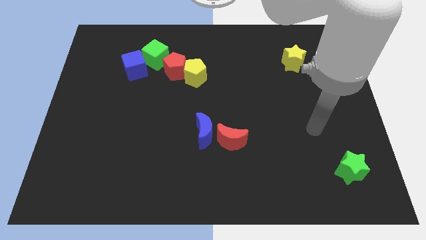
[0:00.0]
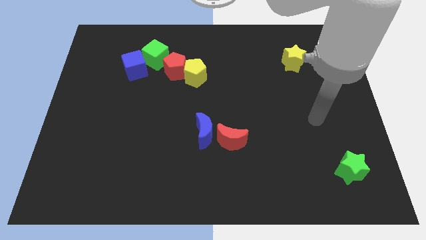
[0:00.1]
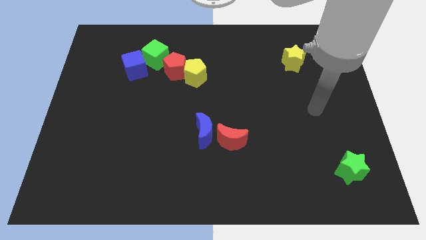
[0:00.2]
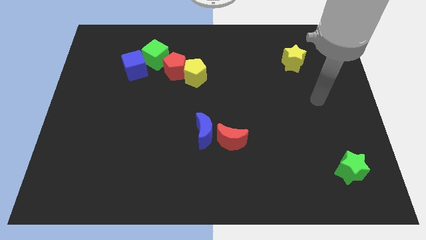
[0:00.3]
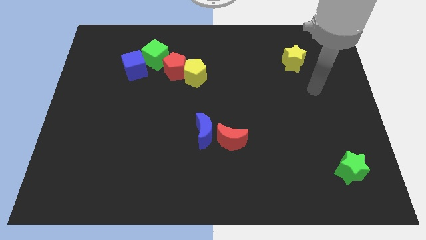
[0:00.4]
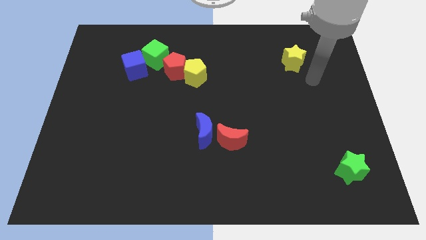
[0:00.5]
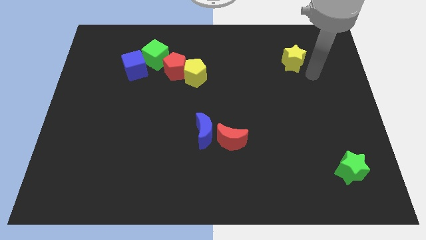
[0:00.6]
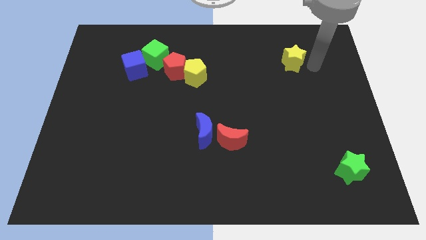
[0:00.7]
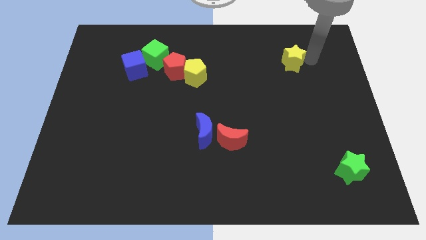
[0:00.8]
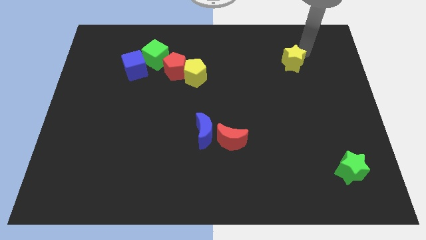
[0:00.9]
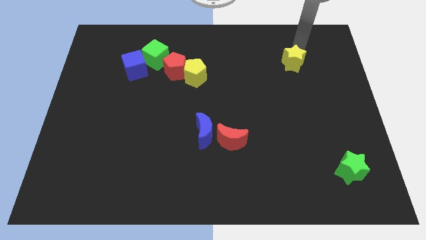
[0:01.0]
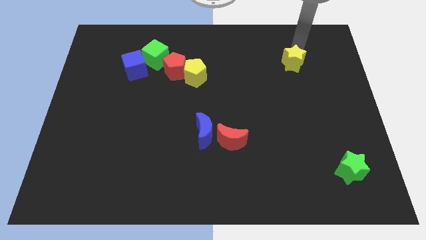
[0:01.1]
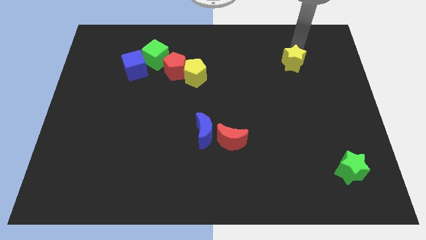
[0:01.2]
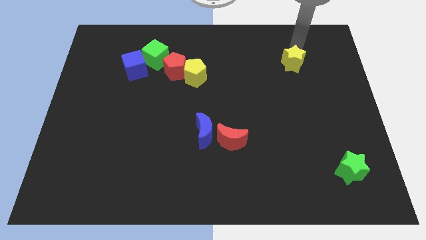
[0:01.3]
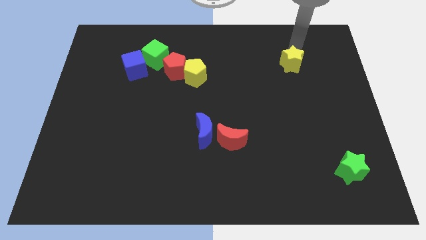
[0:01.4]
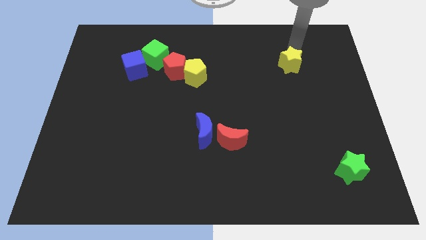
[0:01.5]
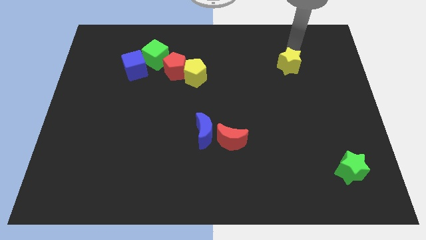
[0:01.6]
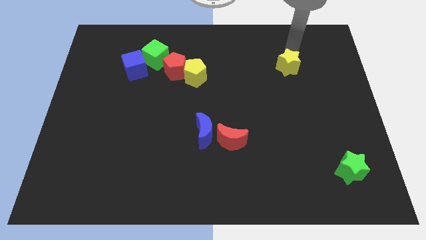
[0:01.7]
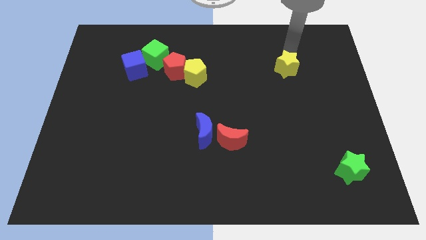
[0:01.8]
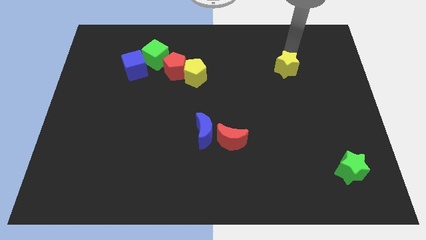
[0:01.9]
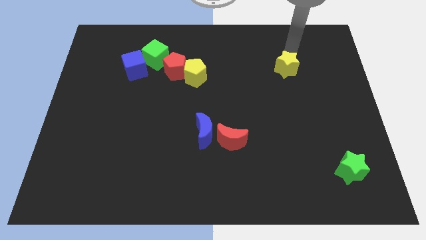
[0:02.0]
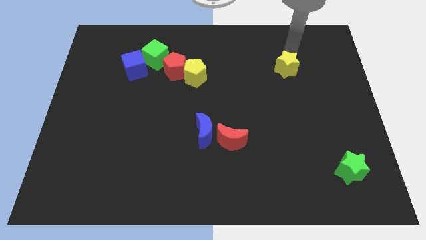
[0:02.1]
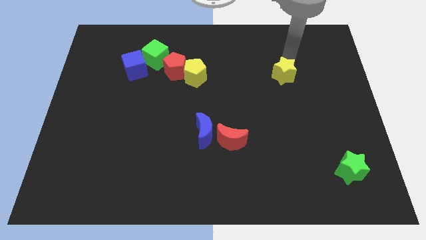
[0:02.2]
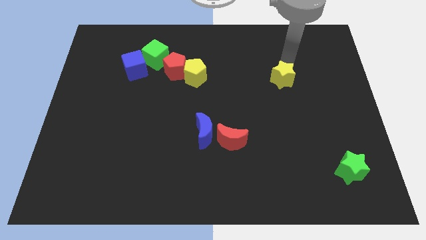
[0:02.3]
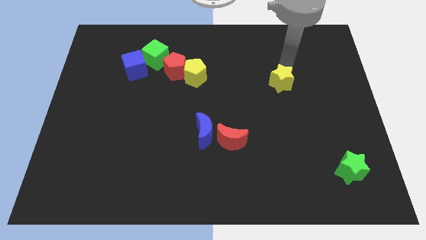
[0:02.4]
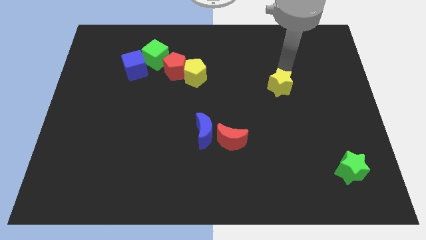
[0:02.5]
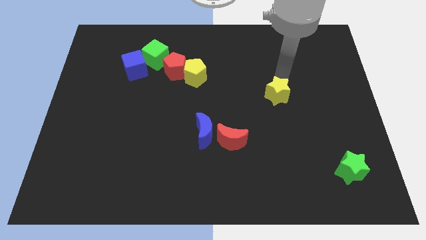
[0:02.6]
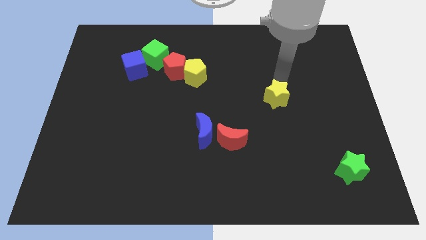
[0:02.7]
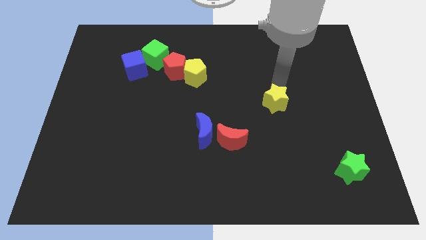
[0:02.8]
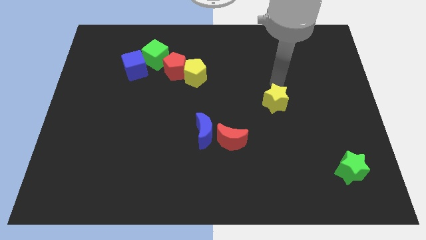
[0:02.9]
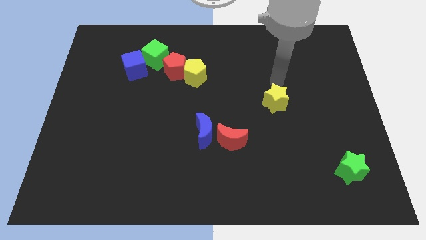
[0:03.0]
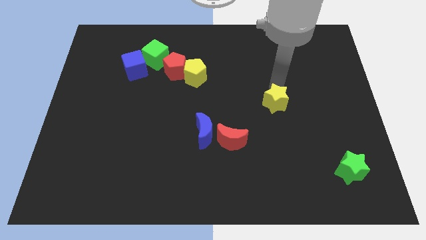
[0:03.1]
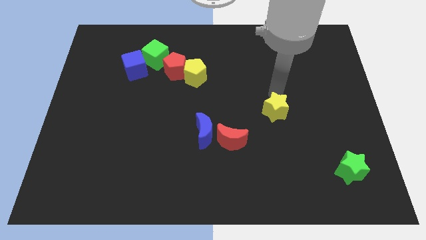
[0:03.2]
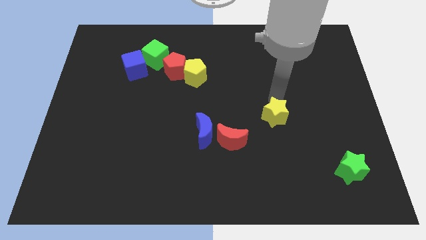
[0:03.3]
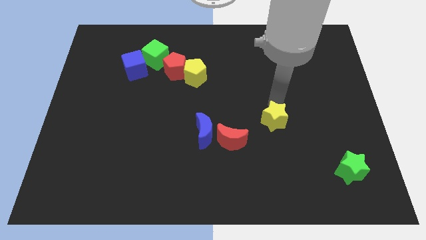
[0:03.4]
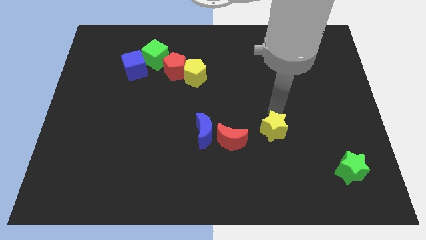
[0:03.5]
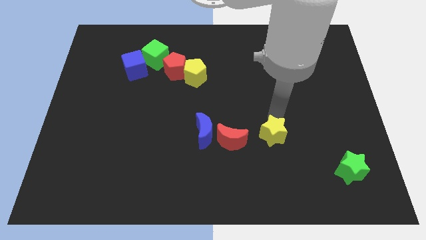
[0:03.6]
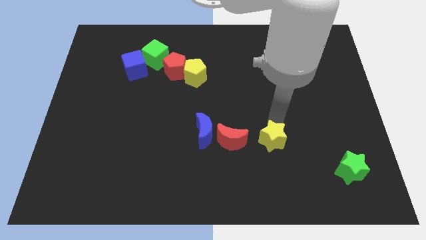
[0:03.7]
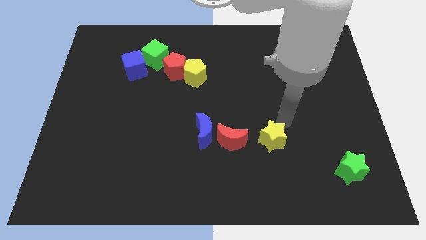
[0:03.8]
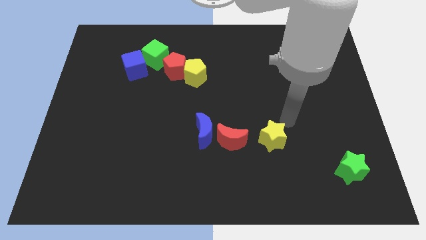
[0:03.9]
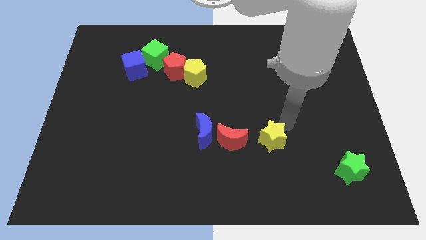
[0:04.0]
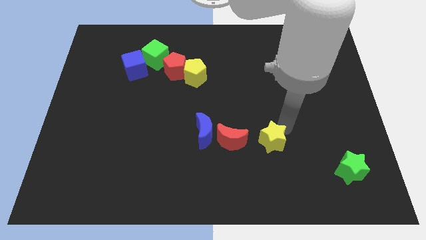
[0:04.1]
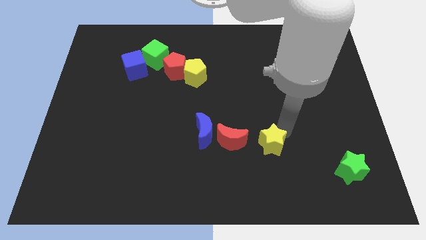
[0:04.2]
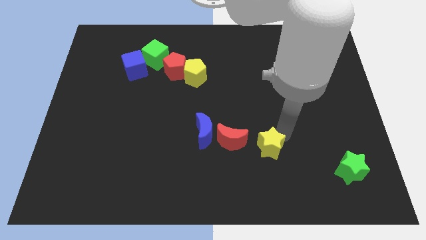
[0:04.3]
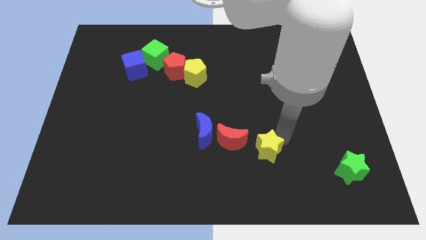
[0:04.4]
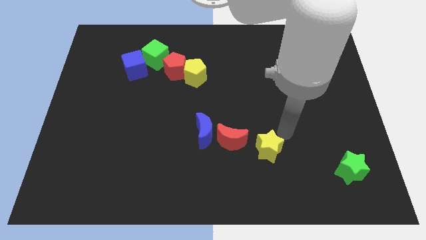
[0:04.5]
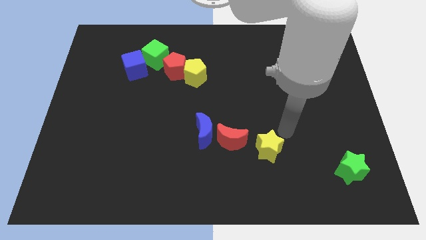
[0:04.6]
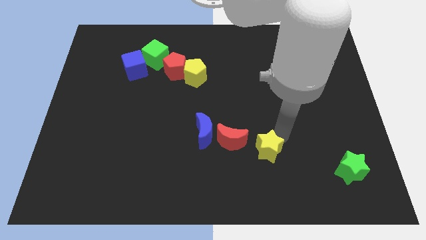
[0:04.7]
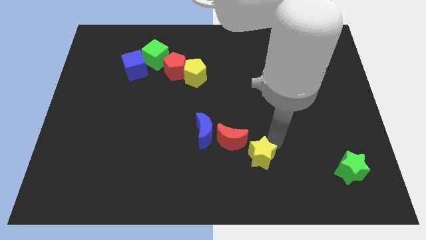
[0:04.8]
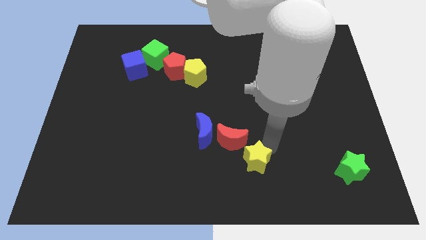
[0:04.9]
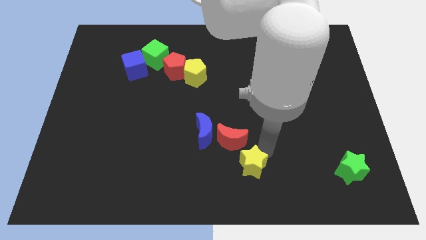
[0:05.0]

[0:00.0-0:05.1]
put the yellow star to the bottom

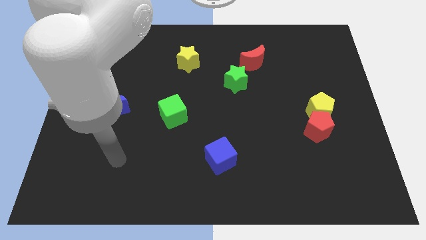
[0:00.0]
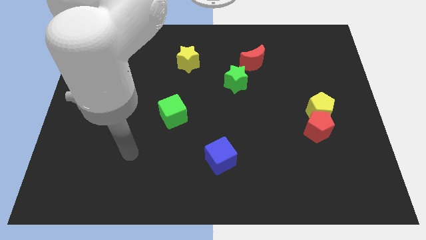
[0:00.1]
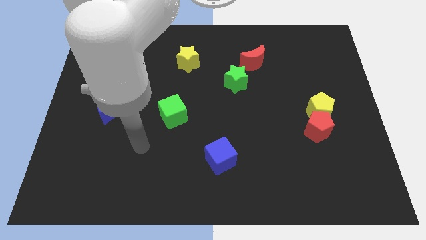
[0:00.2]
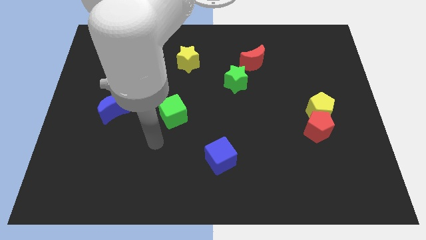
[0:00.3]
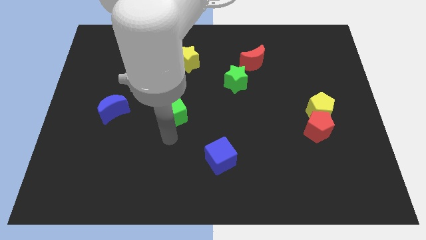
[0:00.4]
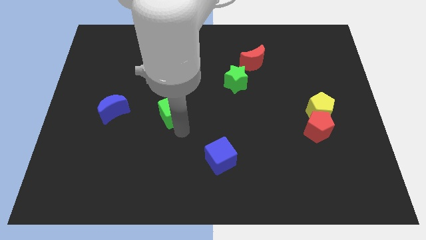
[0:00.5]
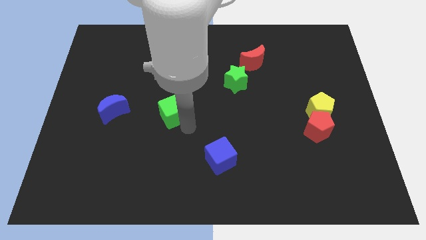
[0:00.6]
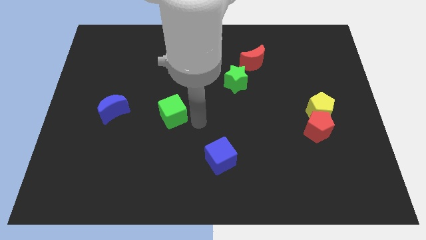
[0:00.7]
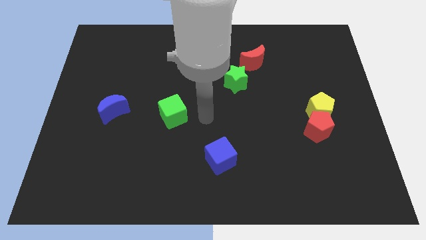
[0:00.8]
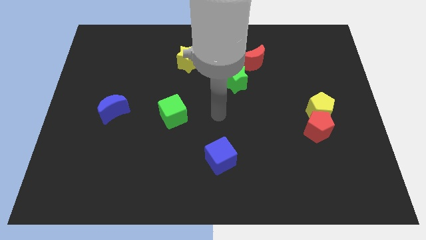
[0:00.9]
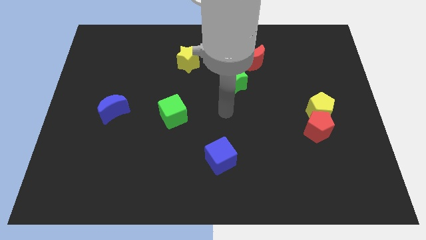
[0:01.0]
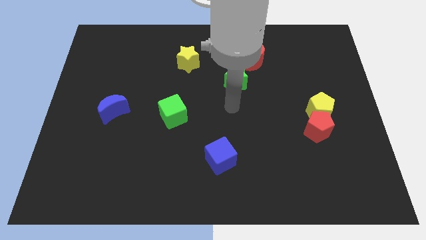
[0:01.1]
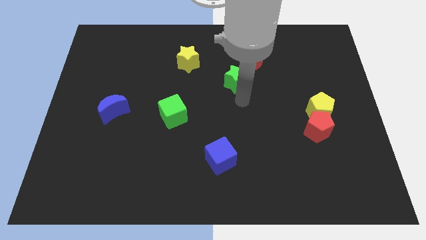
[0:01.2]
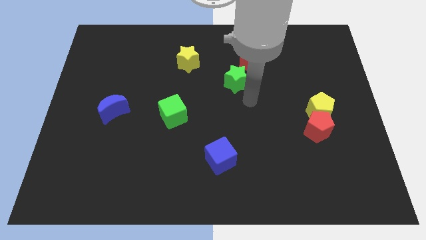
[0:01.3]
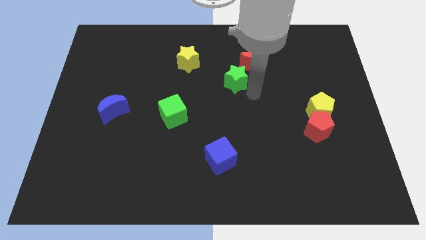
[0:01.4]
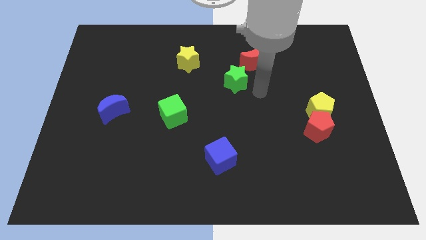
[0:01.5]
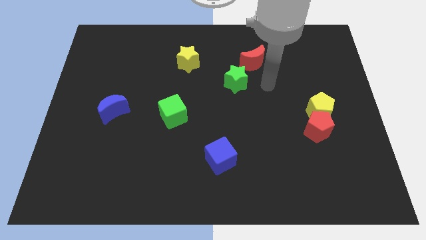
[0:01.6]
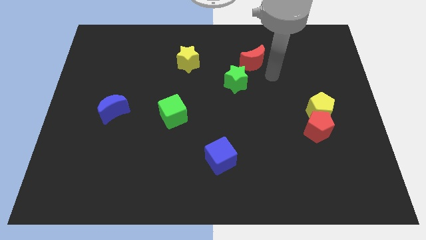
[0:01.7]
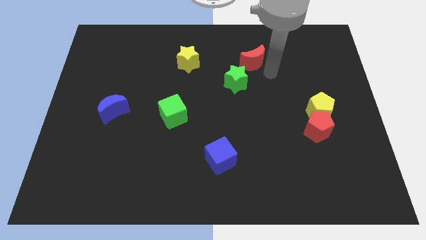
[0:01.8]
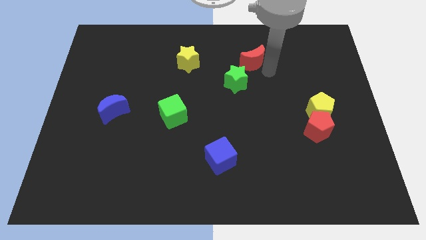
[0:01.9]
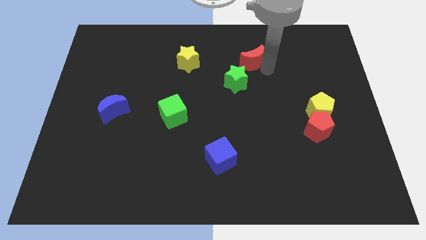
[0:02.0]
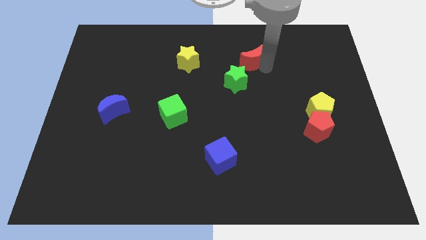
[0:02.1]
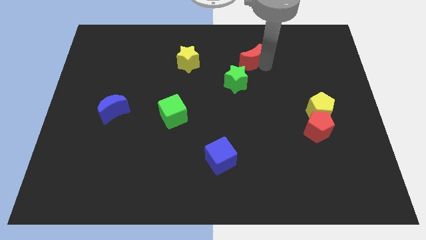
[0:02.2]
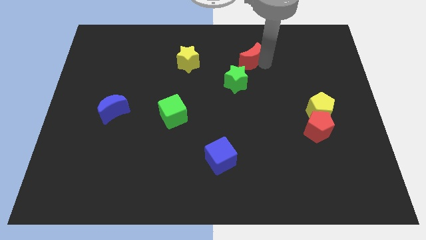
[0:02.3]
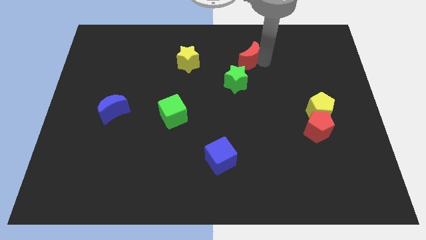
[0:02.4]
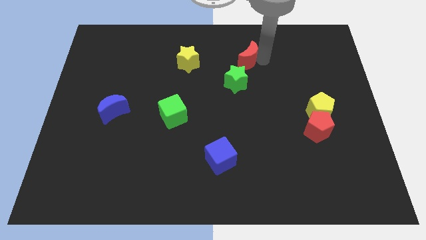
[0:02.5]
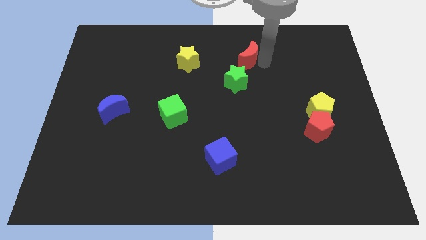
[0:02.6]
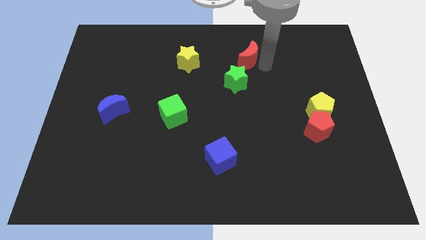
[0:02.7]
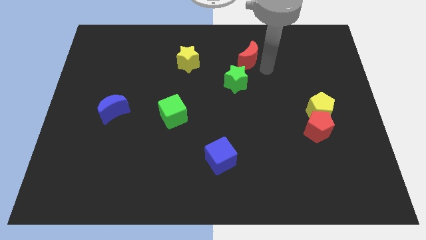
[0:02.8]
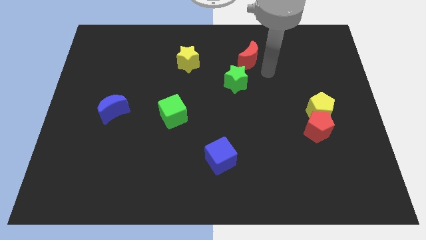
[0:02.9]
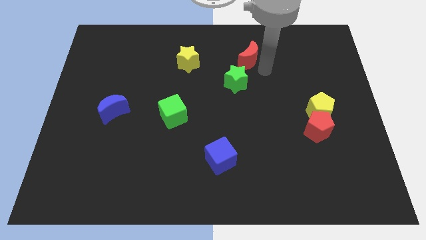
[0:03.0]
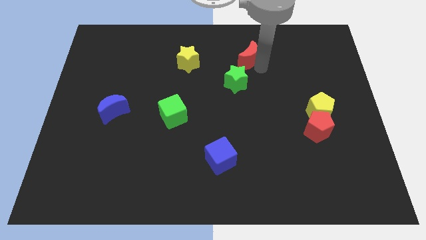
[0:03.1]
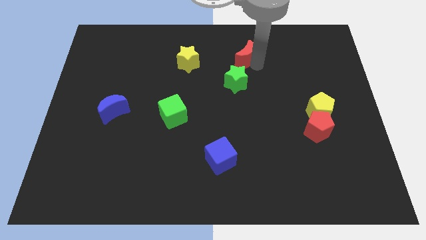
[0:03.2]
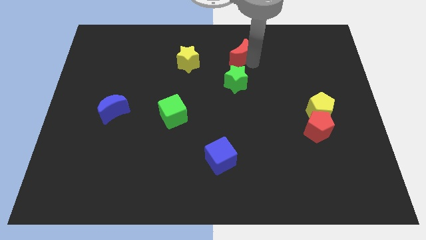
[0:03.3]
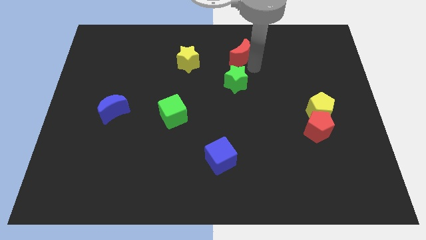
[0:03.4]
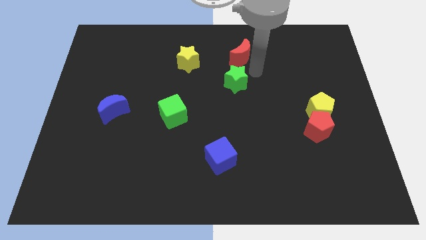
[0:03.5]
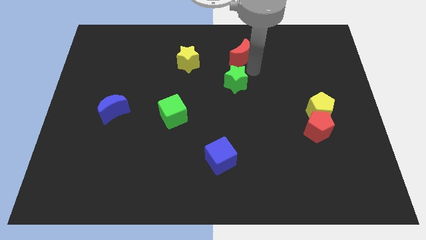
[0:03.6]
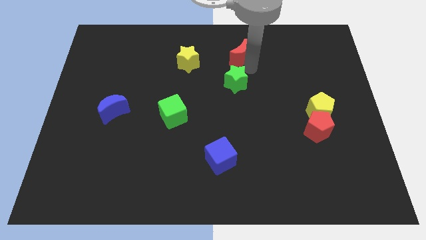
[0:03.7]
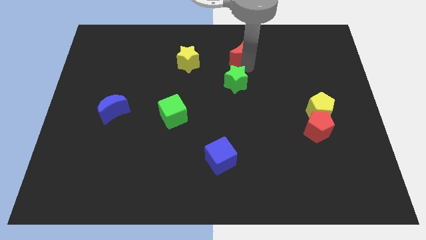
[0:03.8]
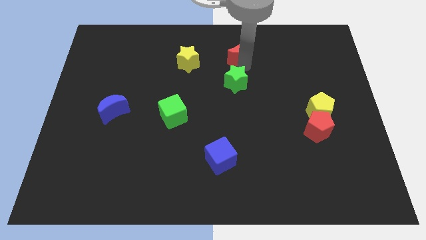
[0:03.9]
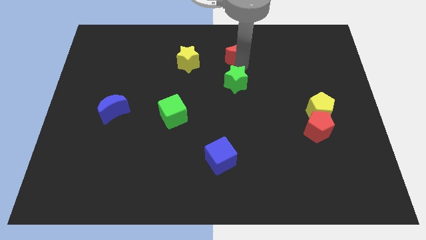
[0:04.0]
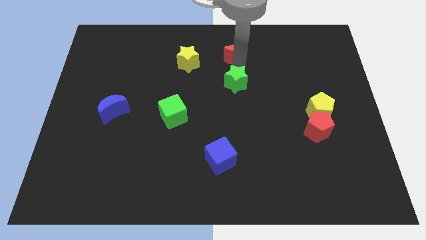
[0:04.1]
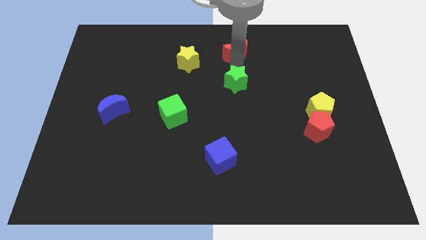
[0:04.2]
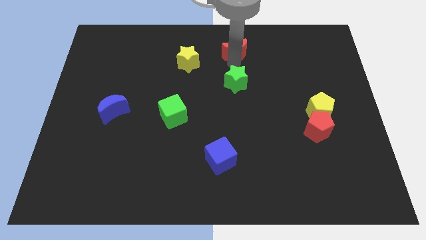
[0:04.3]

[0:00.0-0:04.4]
put the red moon to the top
